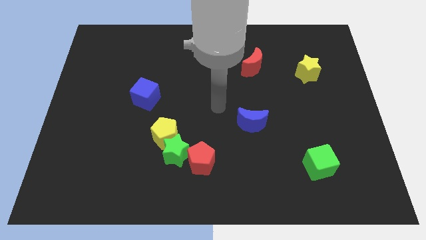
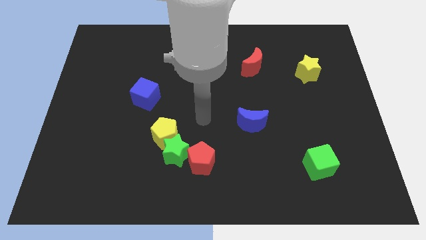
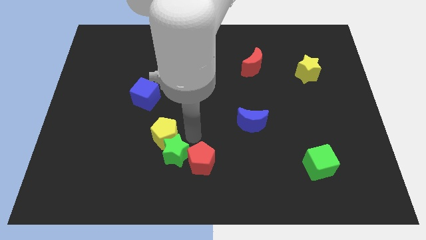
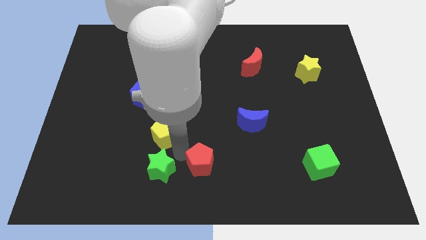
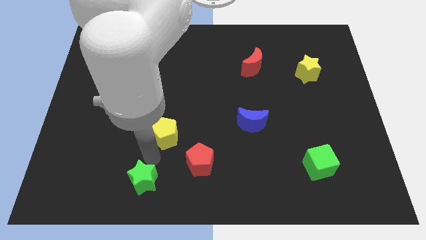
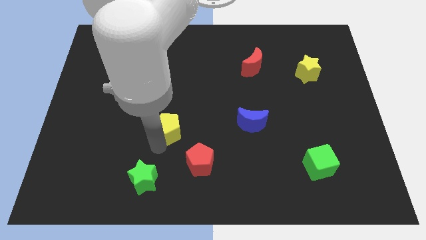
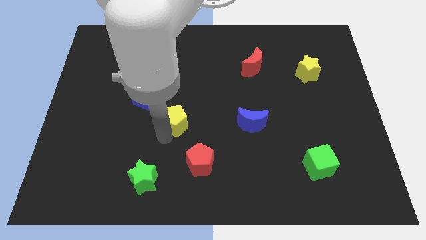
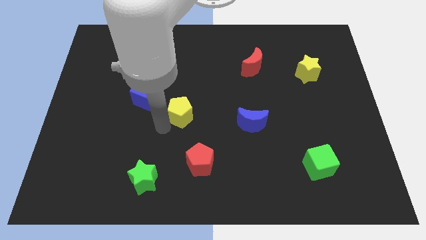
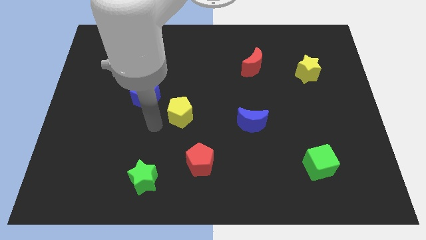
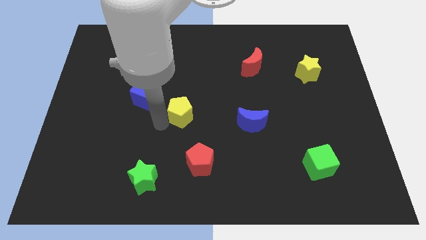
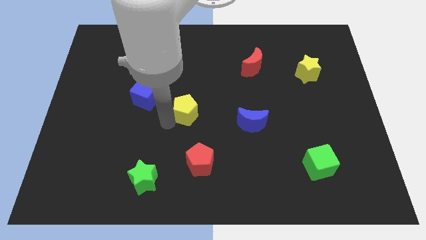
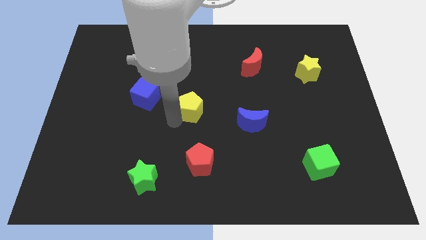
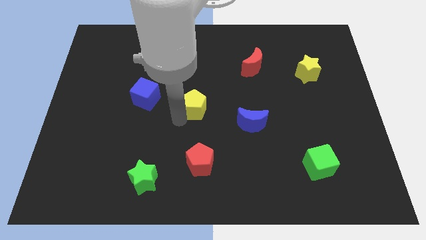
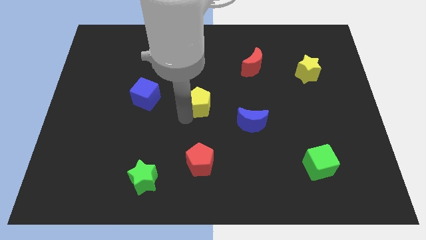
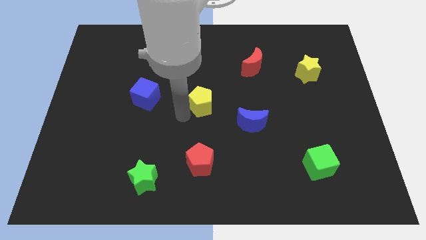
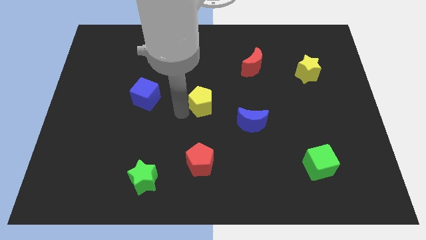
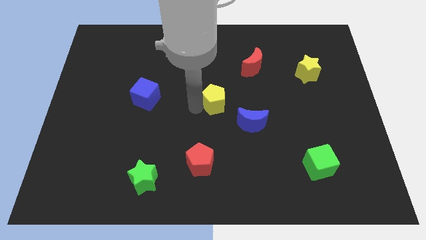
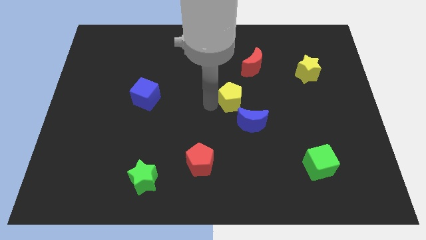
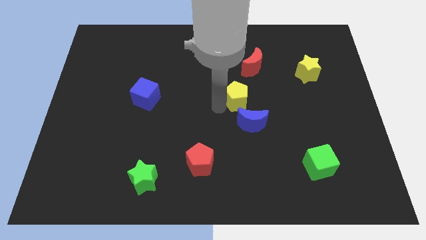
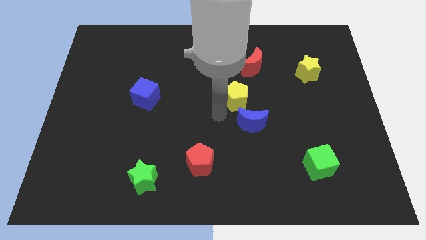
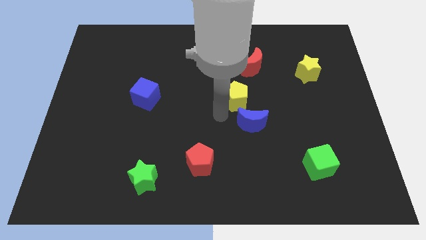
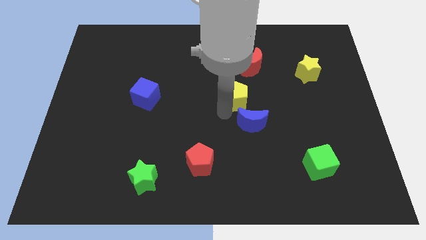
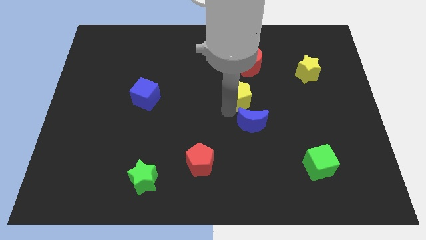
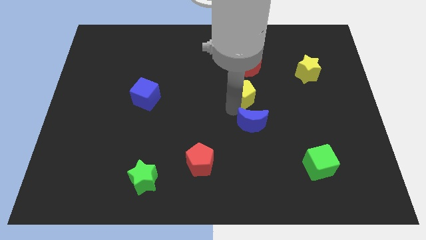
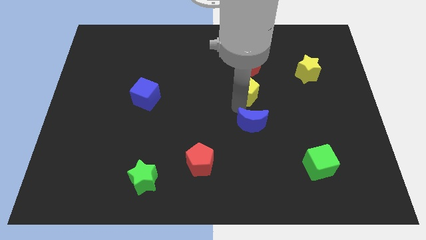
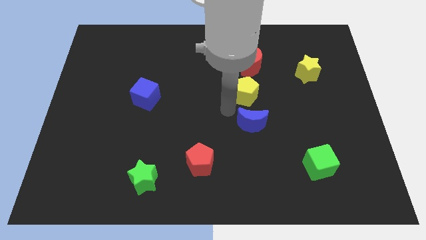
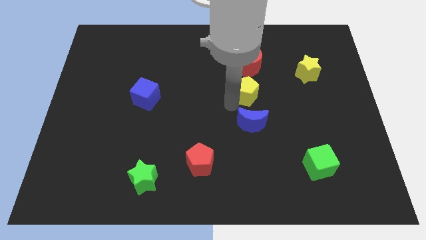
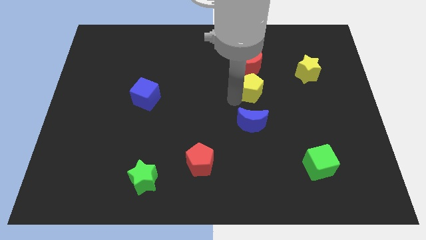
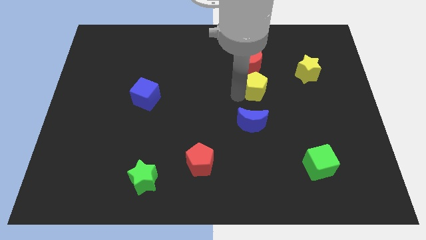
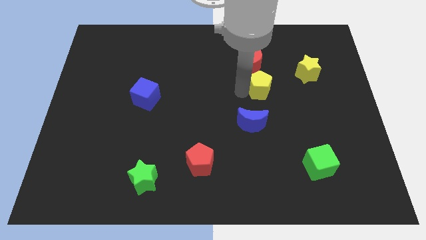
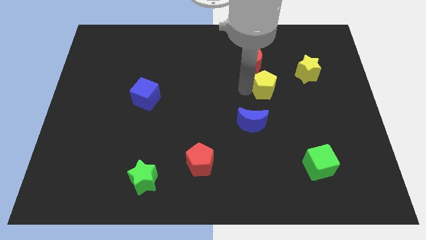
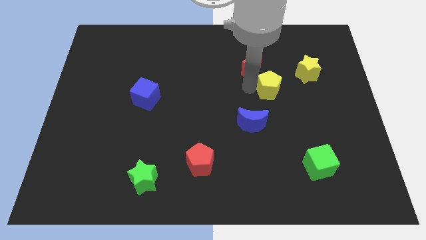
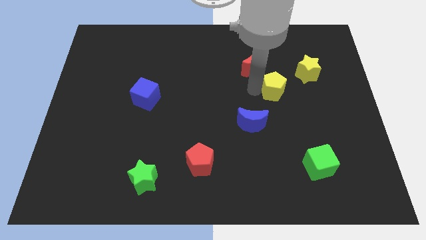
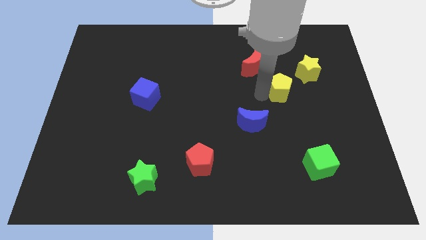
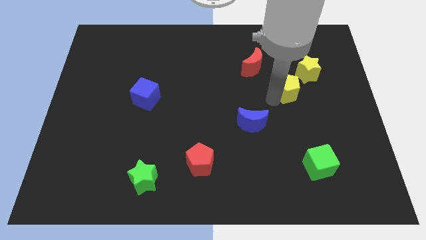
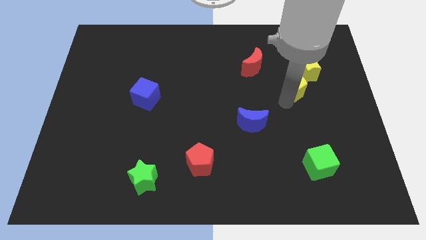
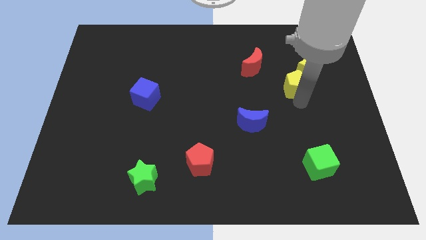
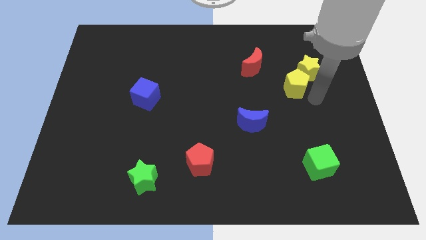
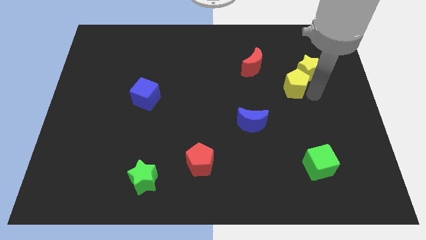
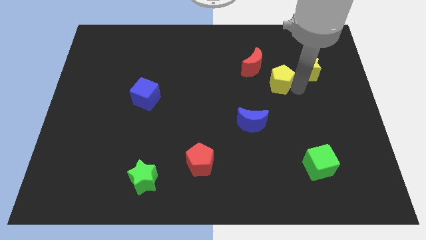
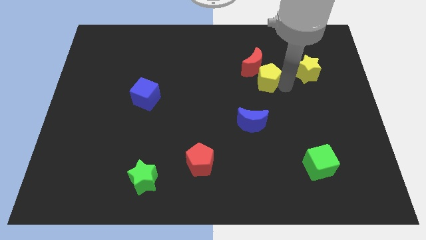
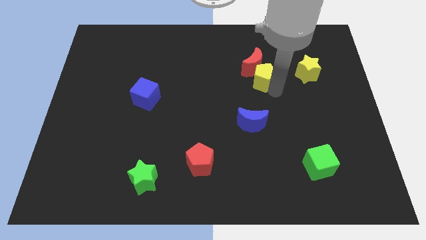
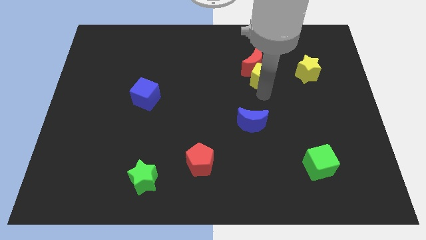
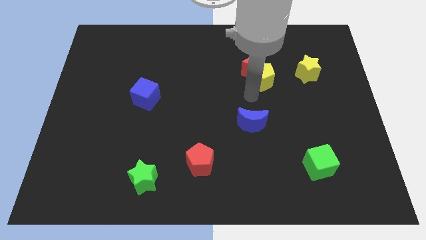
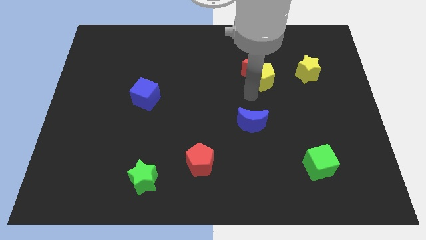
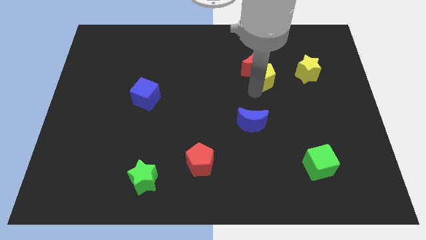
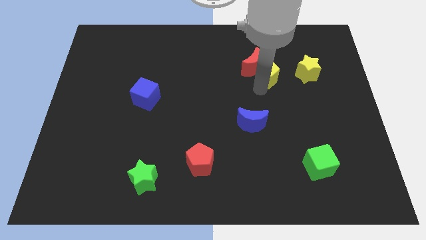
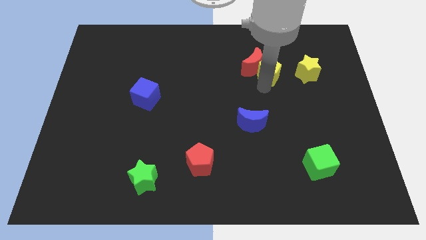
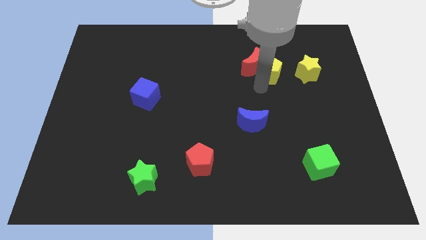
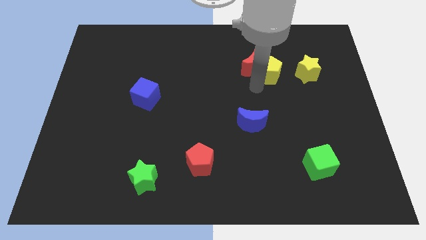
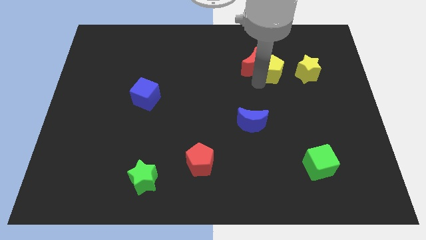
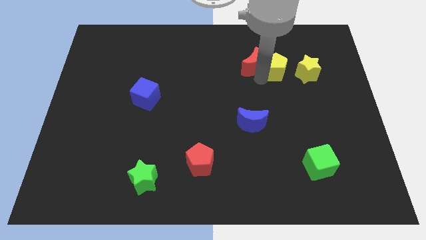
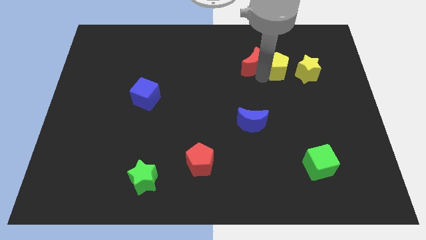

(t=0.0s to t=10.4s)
push the yellow pentagon diagonally up and to the left of the yellow star

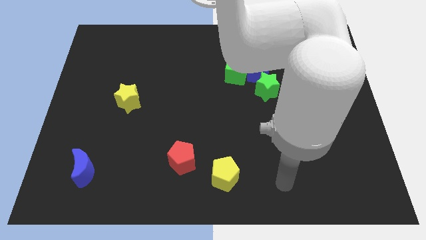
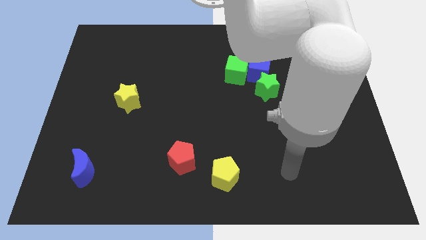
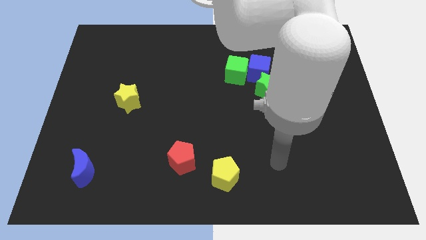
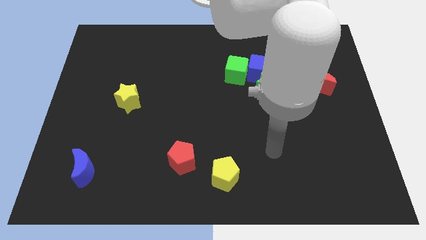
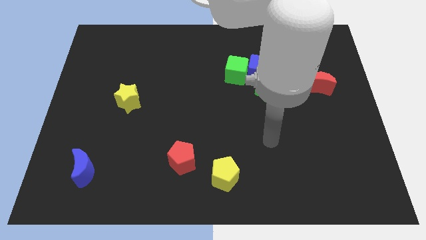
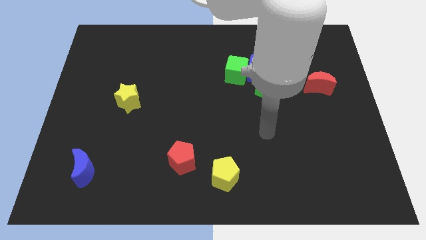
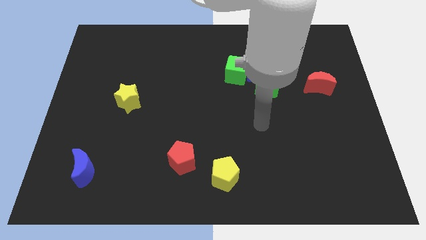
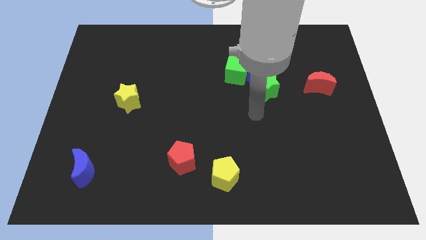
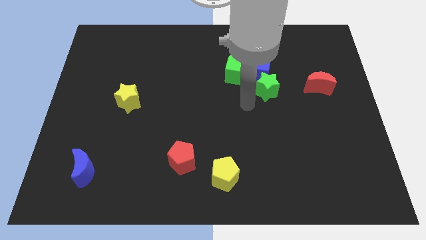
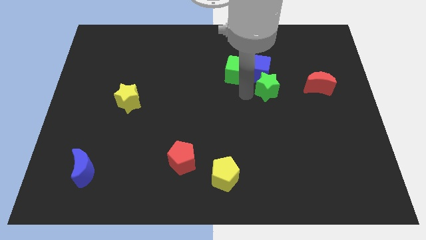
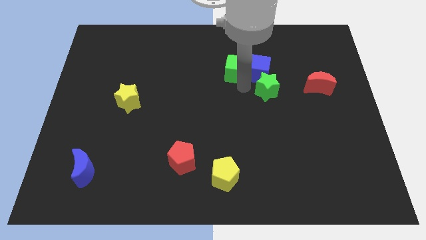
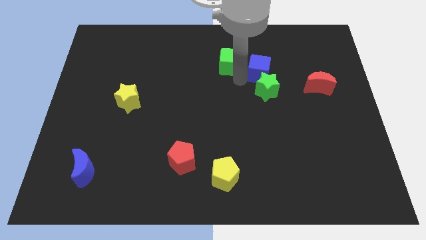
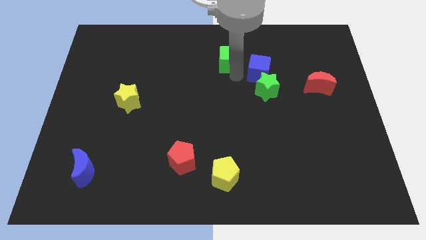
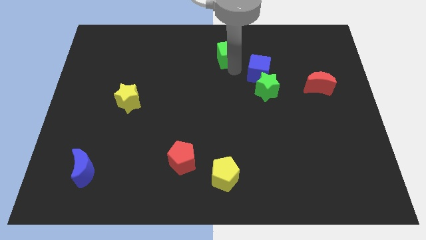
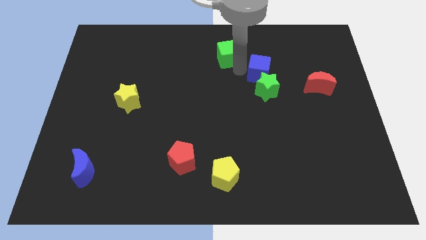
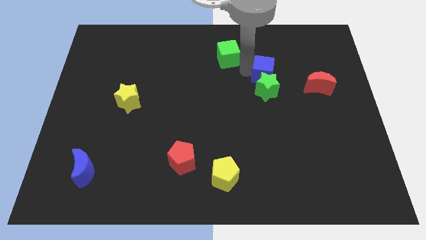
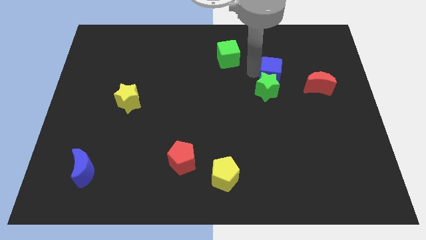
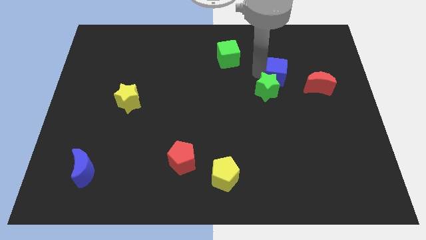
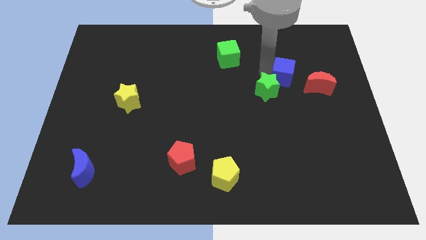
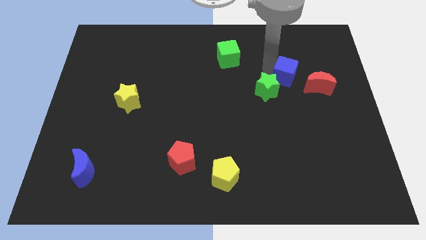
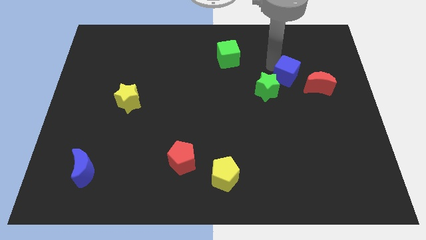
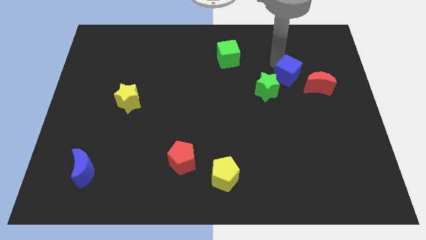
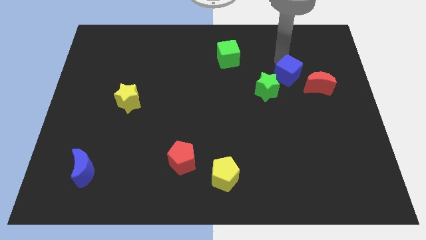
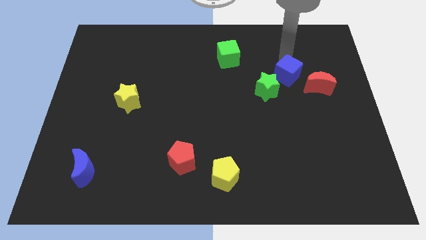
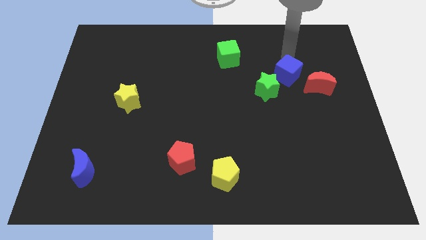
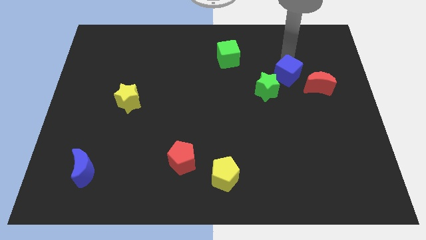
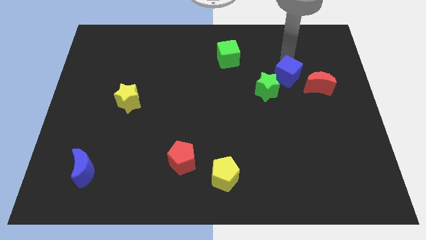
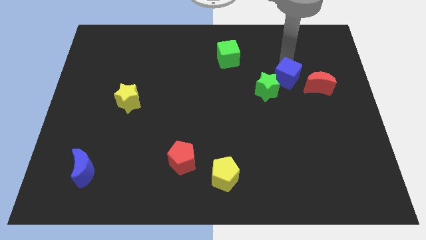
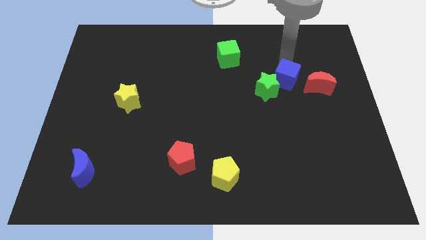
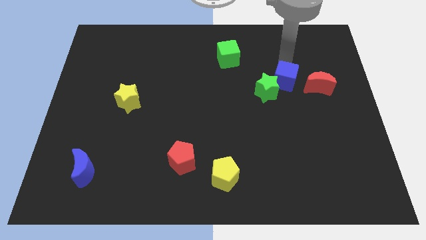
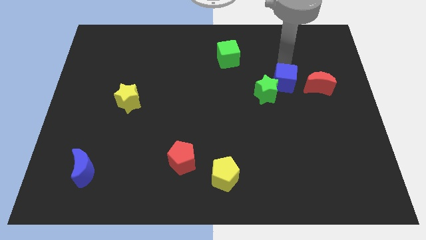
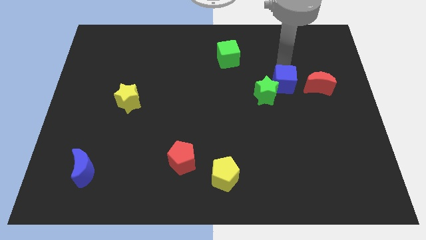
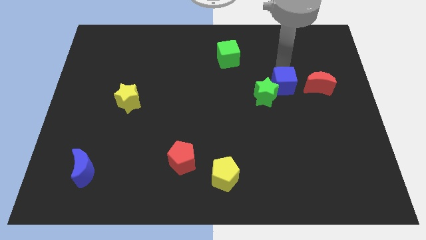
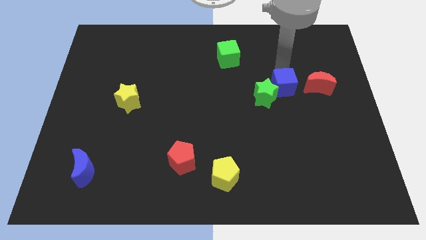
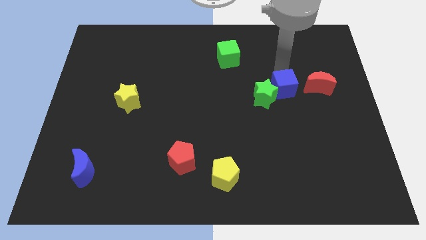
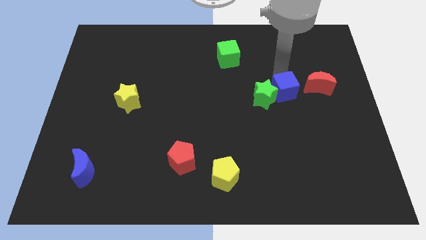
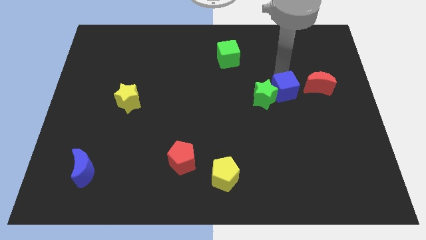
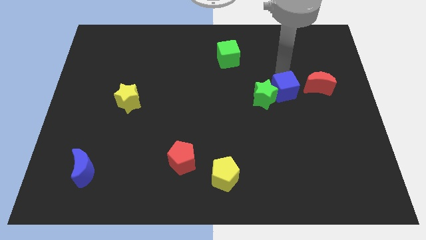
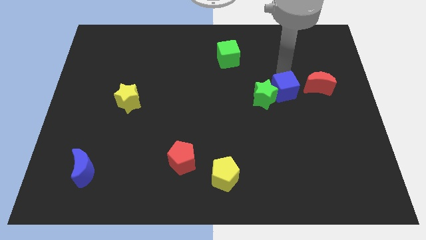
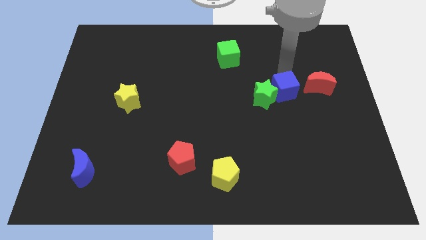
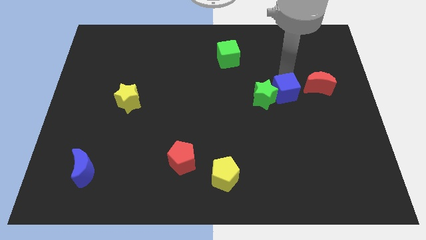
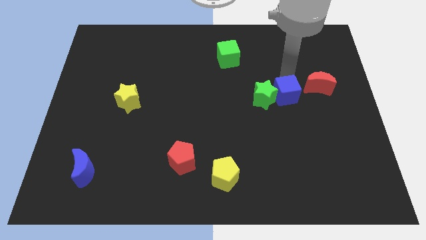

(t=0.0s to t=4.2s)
put the blue cube to the bottom right of the green star
